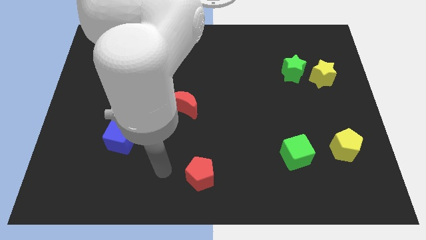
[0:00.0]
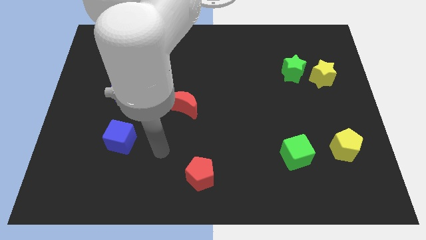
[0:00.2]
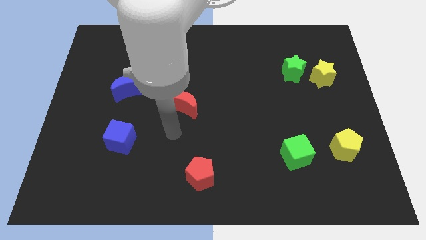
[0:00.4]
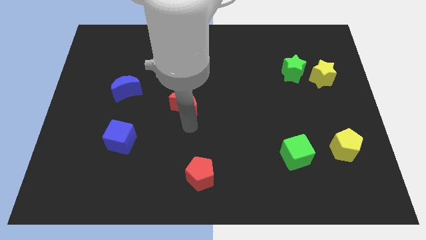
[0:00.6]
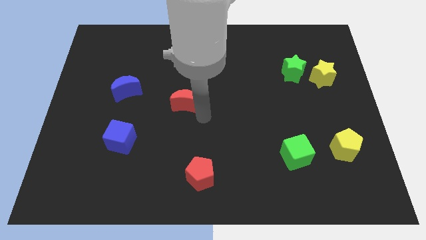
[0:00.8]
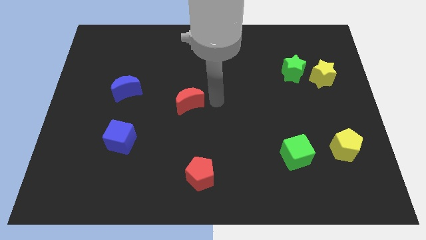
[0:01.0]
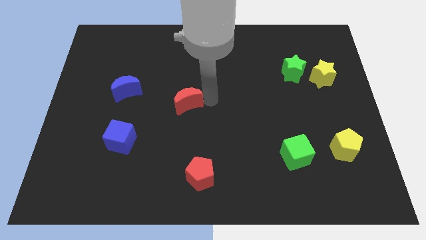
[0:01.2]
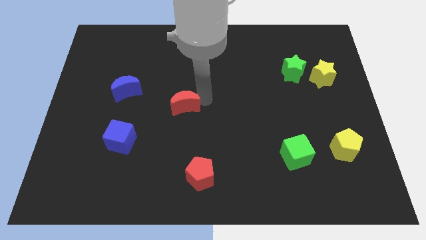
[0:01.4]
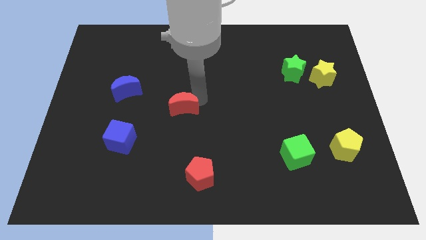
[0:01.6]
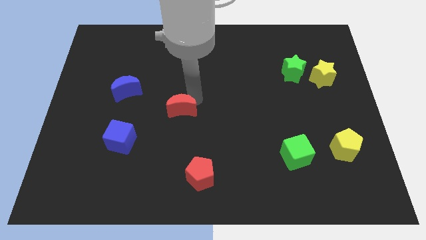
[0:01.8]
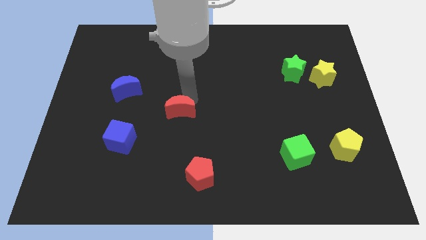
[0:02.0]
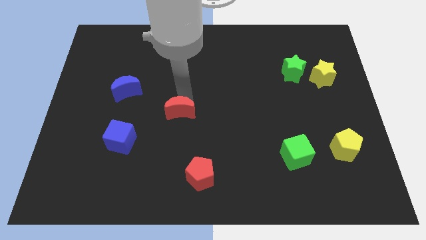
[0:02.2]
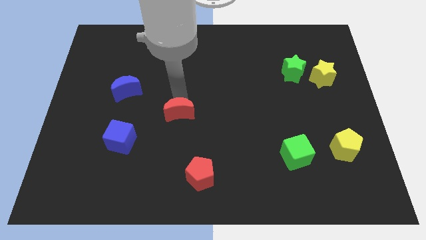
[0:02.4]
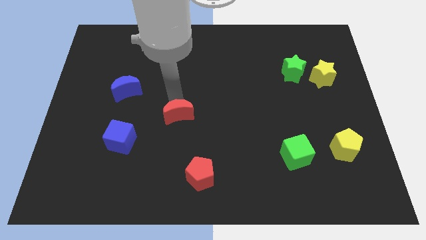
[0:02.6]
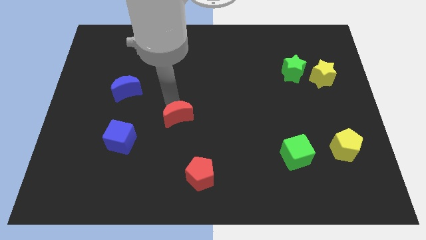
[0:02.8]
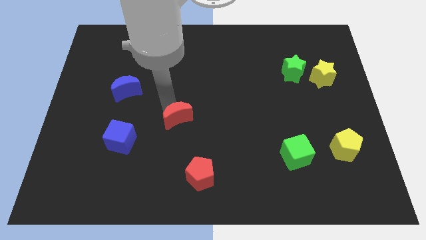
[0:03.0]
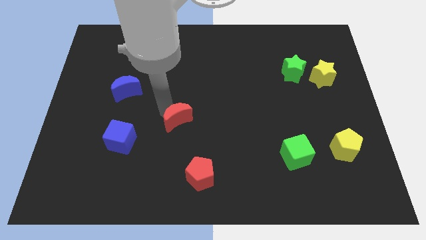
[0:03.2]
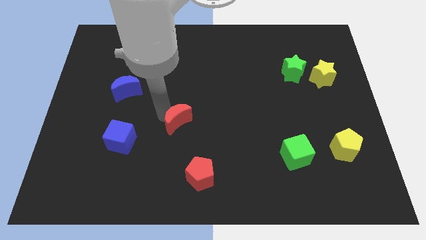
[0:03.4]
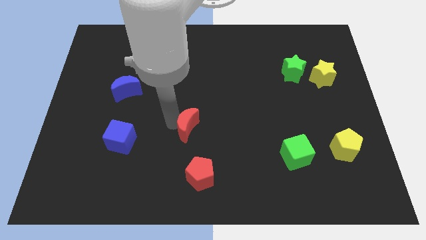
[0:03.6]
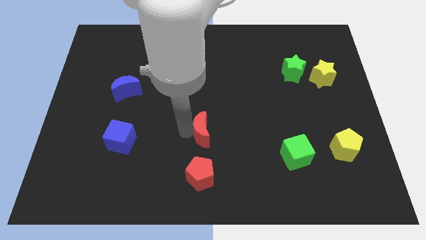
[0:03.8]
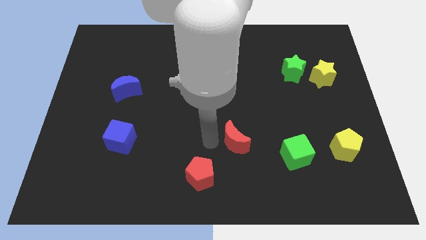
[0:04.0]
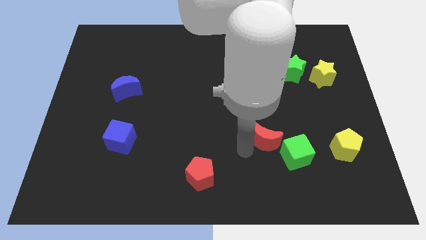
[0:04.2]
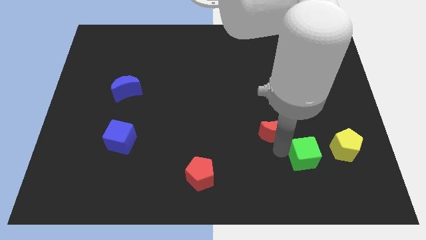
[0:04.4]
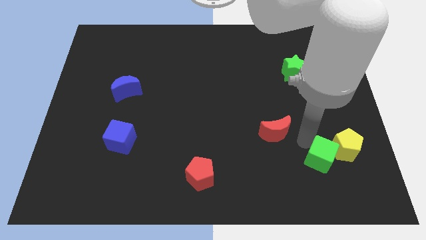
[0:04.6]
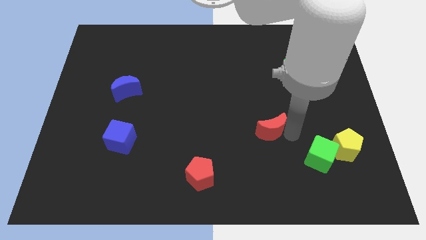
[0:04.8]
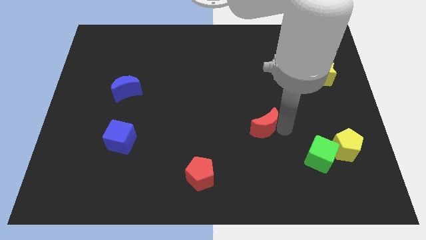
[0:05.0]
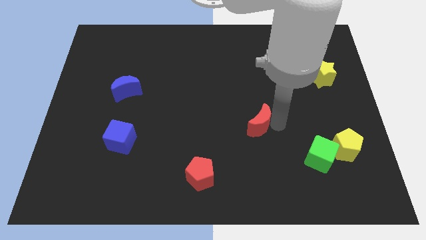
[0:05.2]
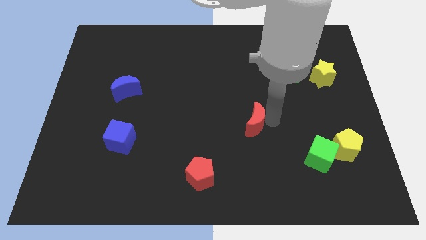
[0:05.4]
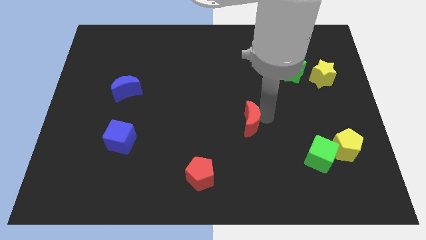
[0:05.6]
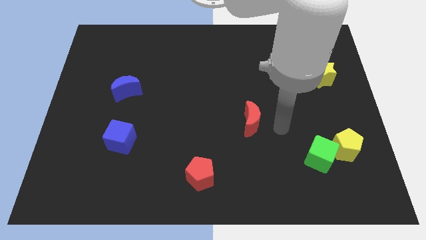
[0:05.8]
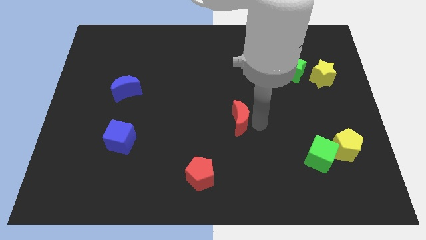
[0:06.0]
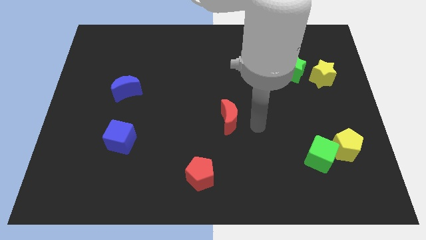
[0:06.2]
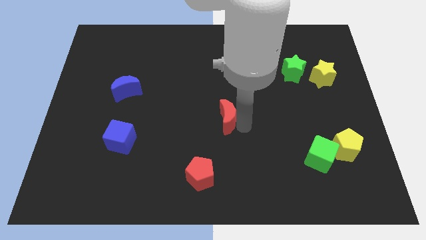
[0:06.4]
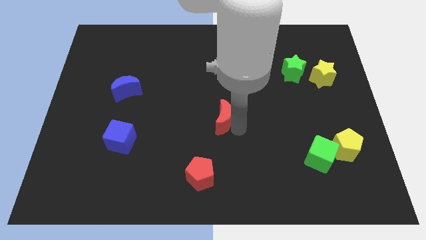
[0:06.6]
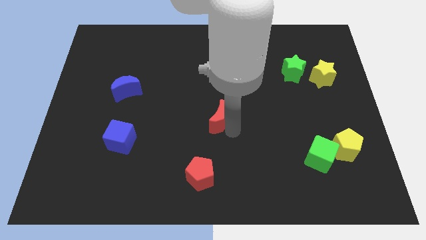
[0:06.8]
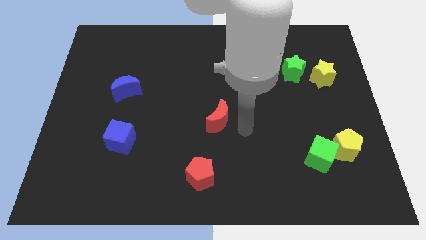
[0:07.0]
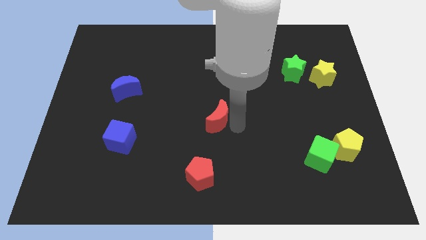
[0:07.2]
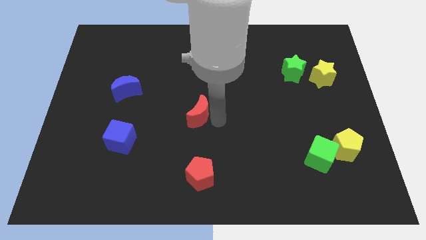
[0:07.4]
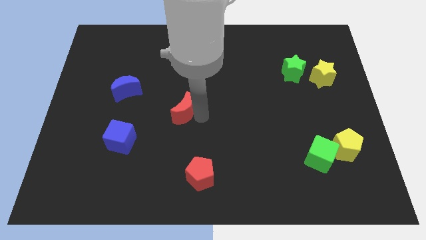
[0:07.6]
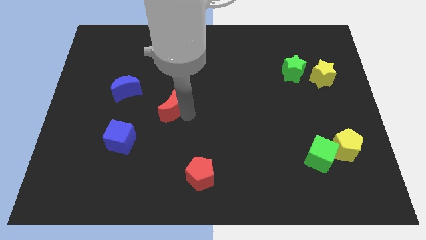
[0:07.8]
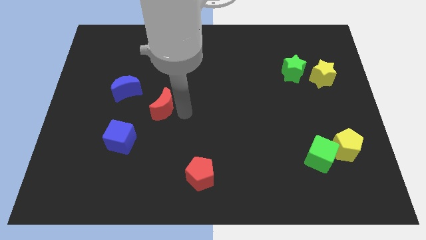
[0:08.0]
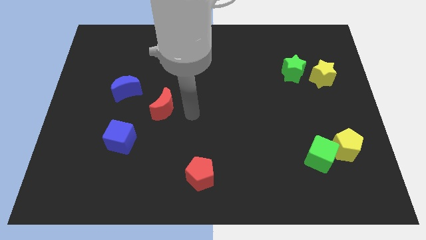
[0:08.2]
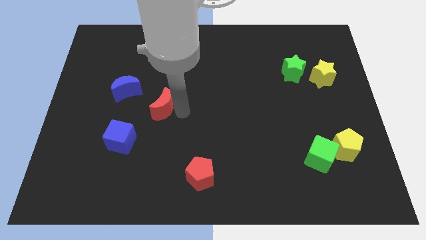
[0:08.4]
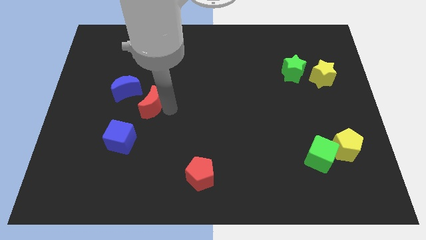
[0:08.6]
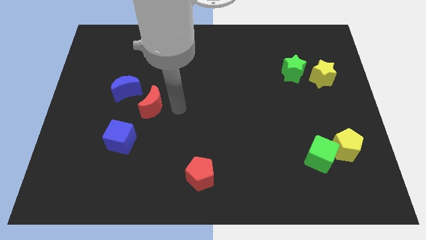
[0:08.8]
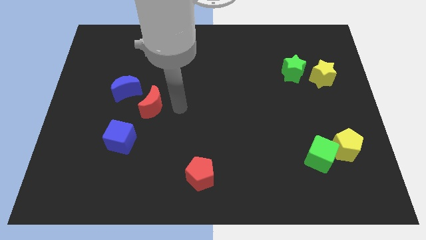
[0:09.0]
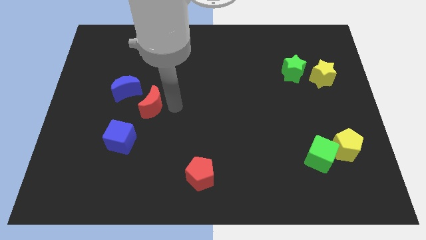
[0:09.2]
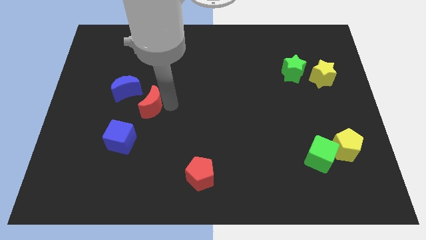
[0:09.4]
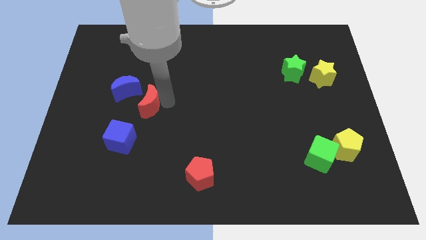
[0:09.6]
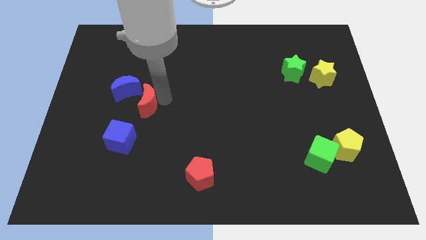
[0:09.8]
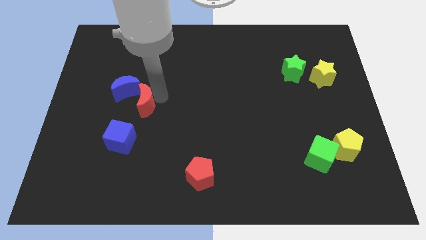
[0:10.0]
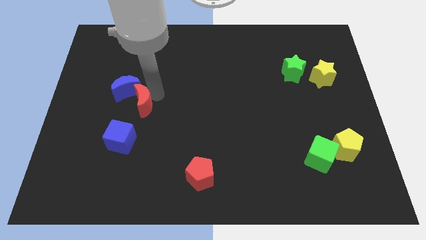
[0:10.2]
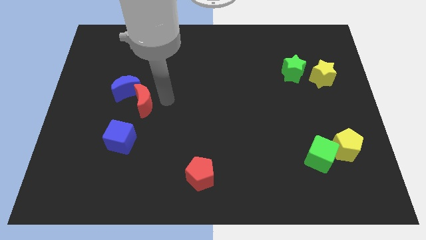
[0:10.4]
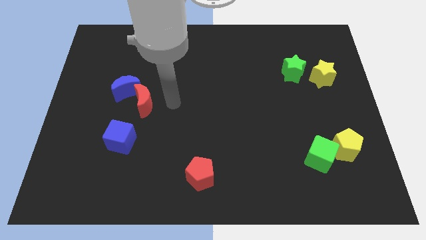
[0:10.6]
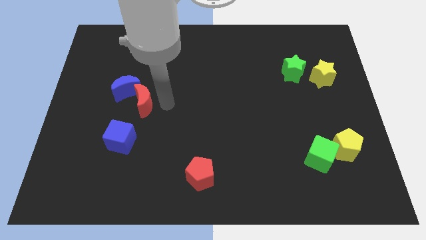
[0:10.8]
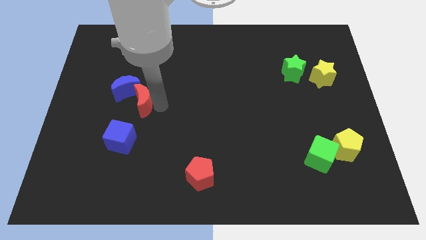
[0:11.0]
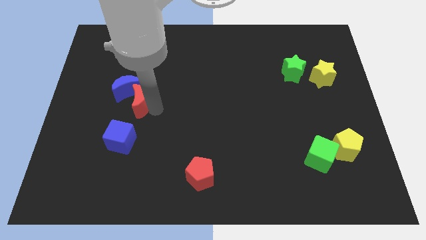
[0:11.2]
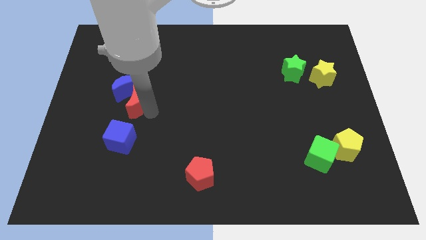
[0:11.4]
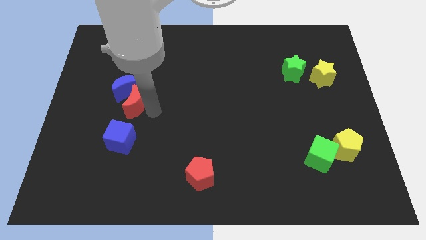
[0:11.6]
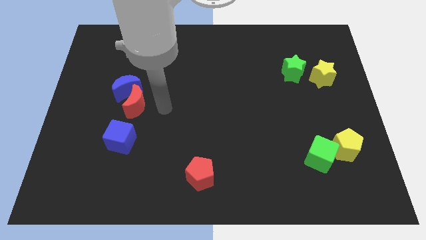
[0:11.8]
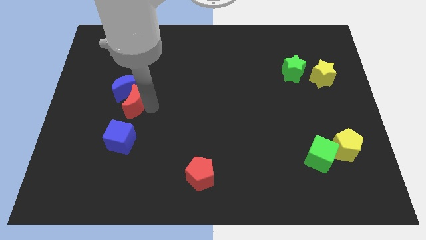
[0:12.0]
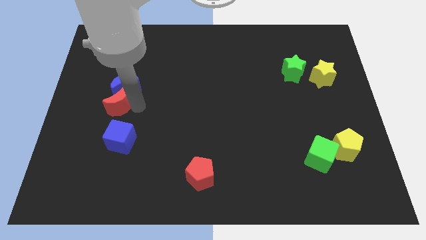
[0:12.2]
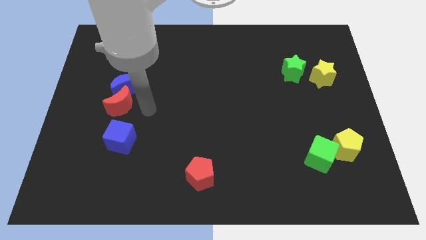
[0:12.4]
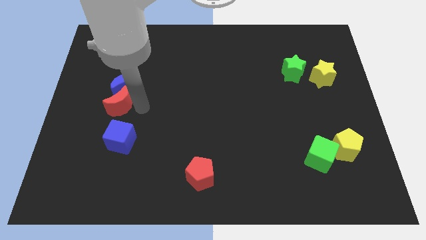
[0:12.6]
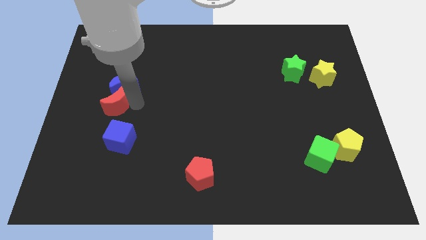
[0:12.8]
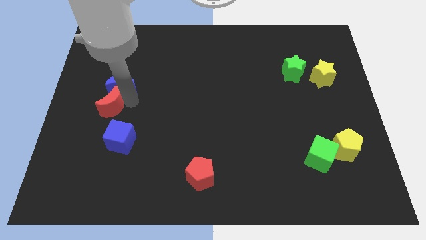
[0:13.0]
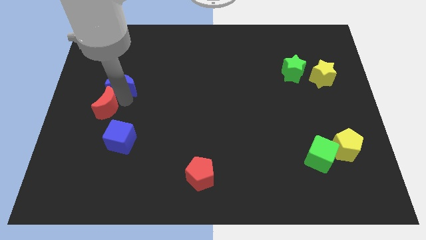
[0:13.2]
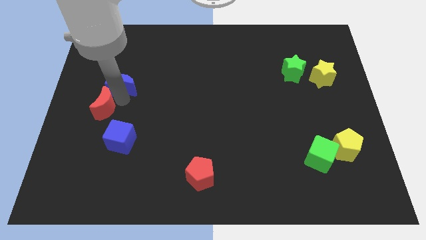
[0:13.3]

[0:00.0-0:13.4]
put the red moon to the center left
